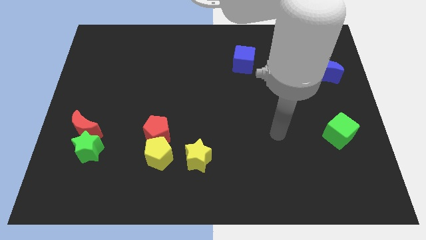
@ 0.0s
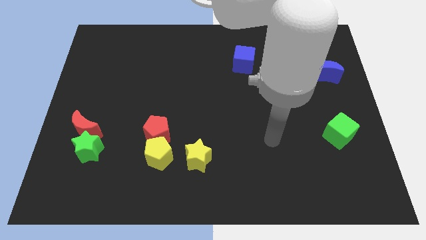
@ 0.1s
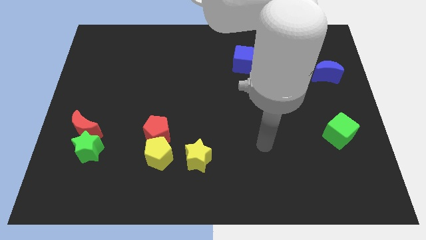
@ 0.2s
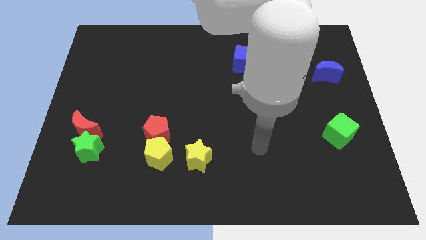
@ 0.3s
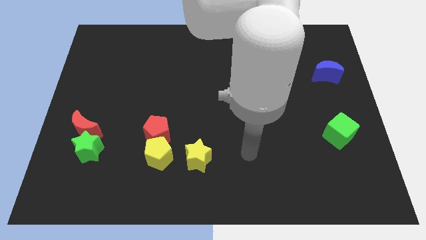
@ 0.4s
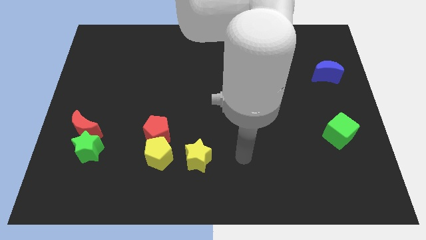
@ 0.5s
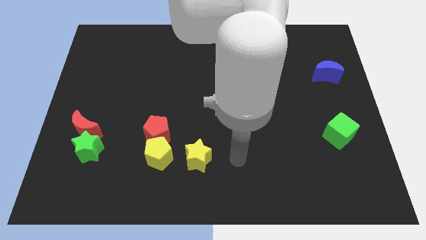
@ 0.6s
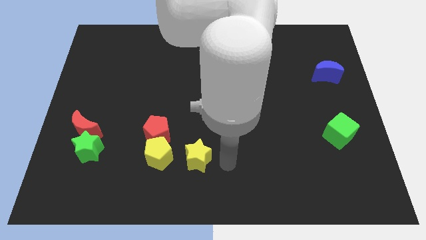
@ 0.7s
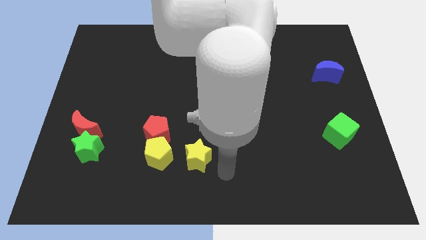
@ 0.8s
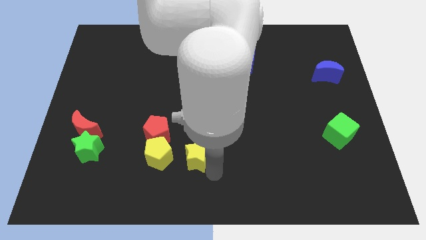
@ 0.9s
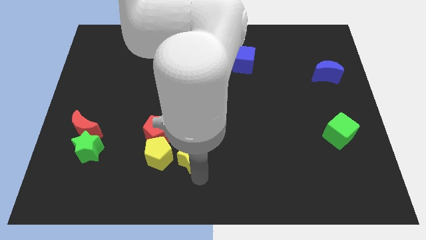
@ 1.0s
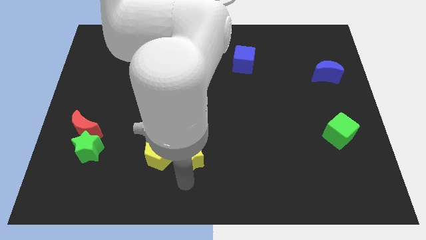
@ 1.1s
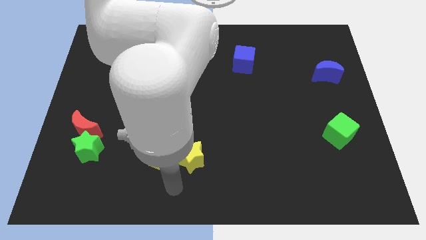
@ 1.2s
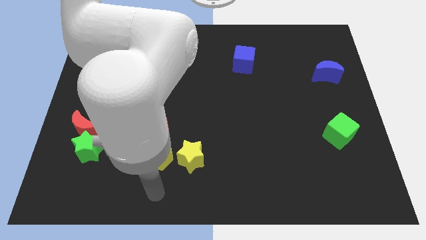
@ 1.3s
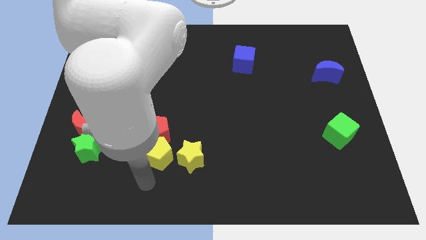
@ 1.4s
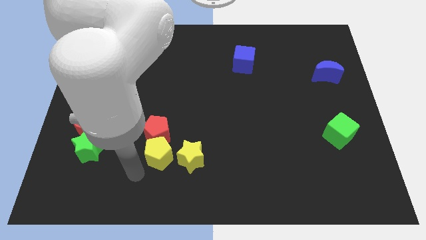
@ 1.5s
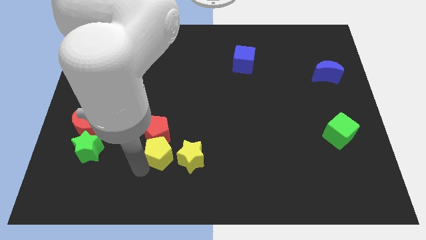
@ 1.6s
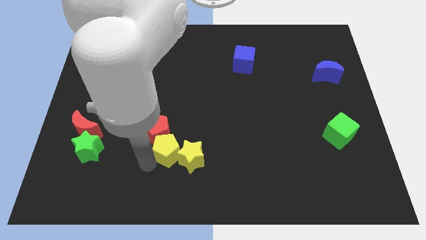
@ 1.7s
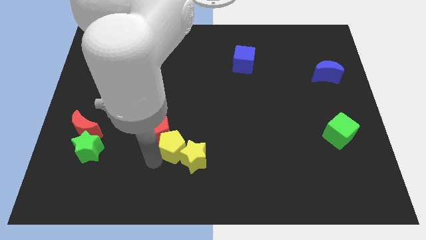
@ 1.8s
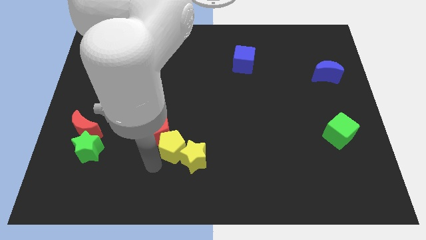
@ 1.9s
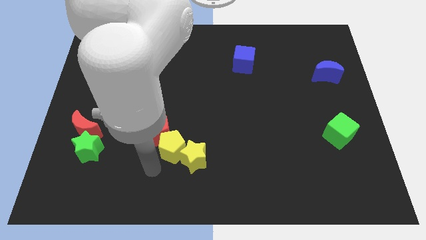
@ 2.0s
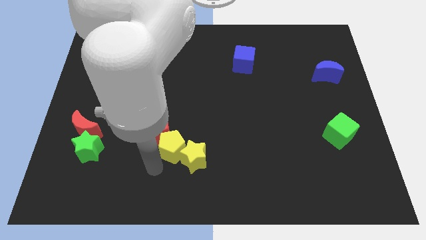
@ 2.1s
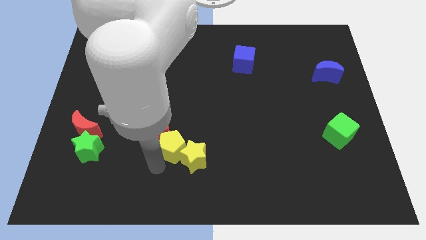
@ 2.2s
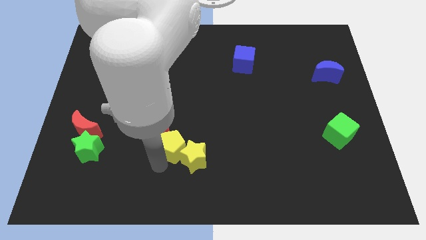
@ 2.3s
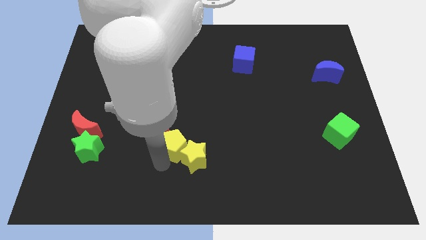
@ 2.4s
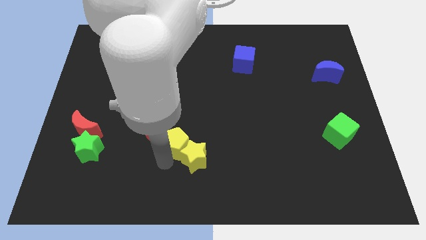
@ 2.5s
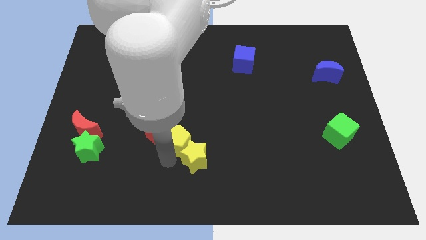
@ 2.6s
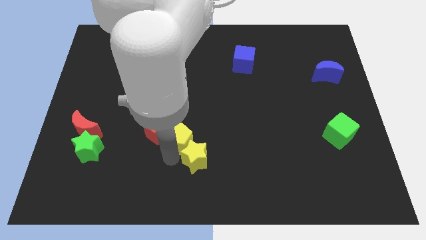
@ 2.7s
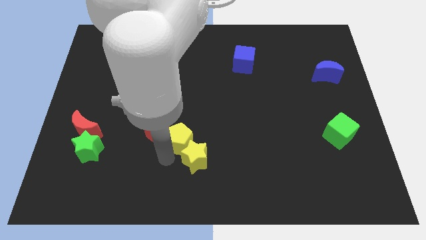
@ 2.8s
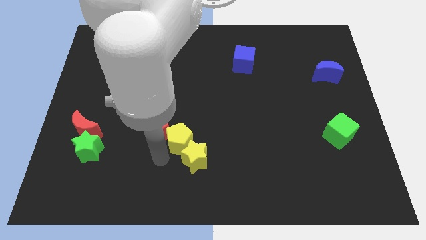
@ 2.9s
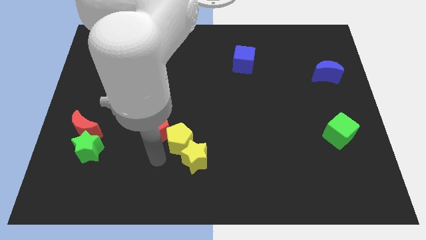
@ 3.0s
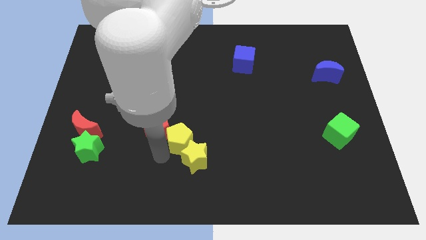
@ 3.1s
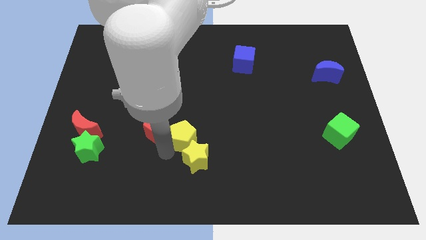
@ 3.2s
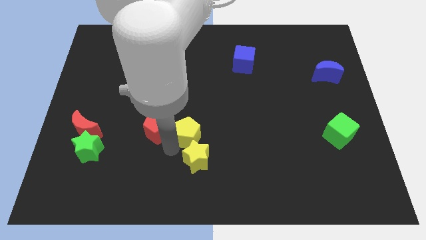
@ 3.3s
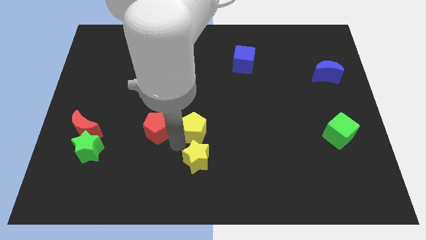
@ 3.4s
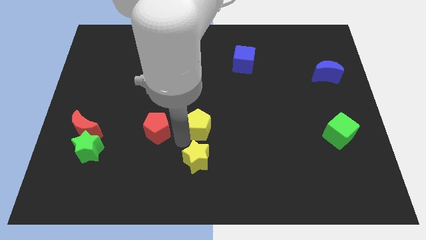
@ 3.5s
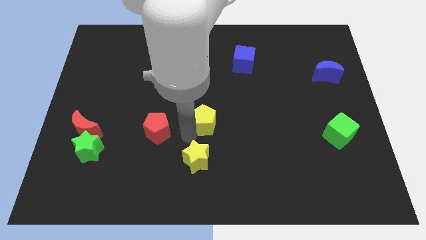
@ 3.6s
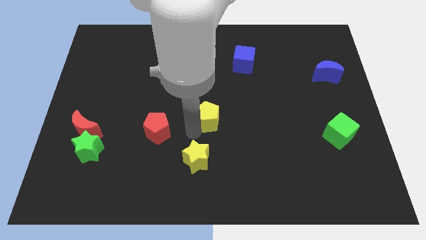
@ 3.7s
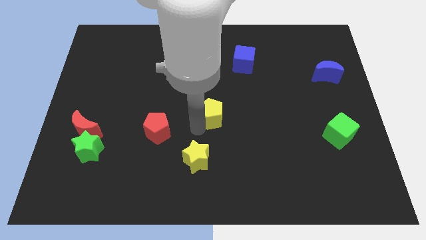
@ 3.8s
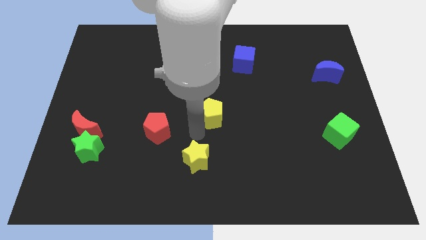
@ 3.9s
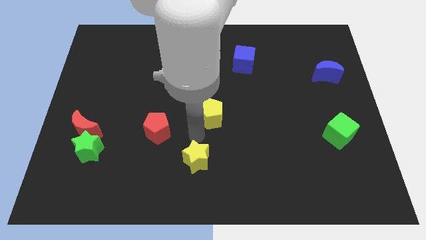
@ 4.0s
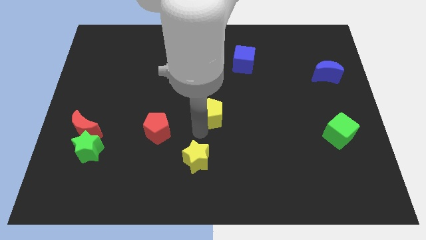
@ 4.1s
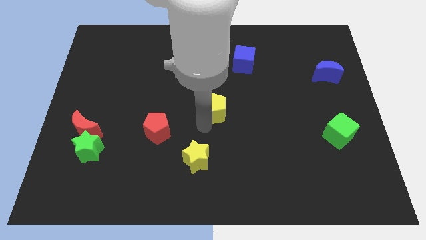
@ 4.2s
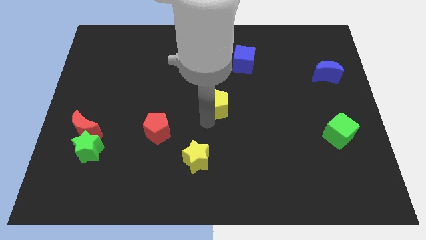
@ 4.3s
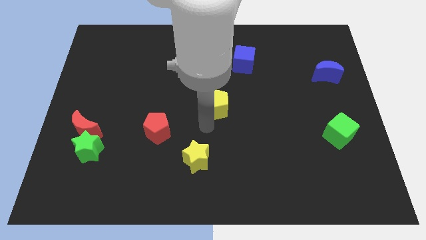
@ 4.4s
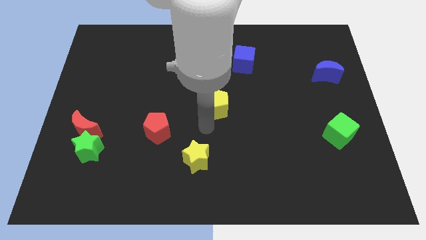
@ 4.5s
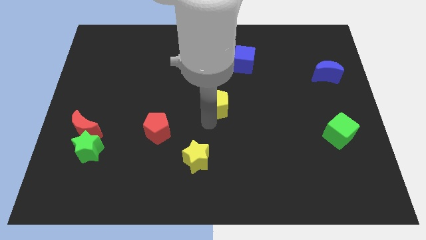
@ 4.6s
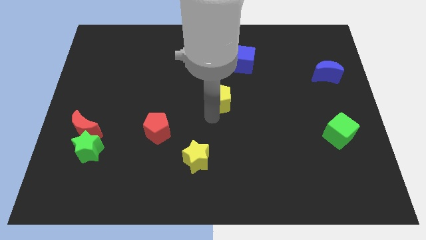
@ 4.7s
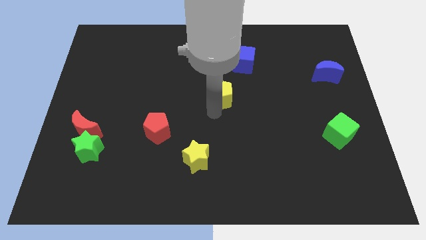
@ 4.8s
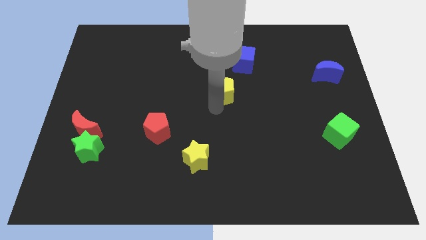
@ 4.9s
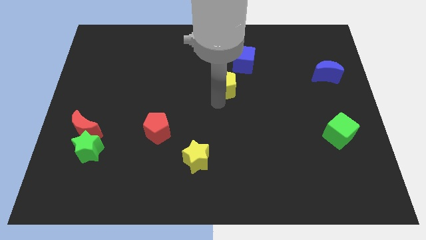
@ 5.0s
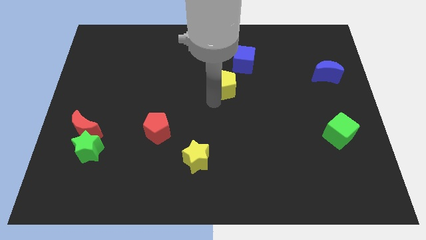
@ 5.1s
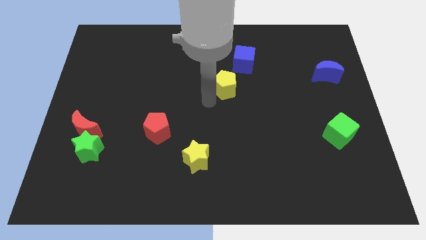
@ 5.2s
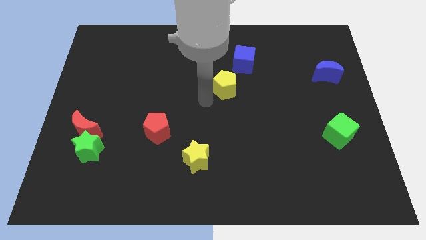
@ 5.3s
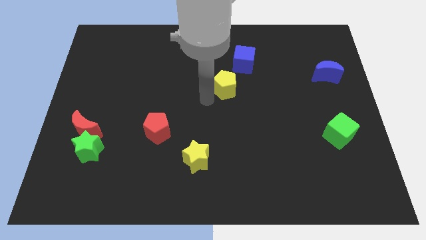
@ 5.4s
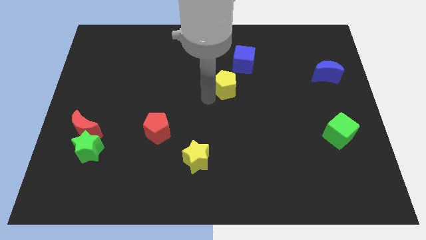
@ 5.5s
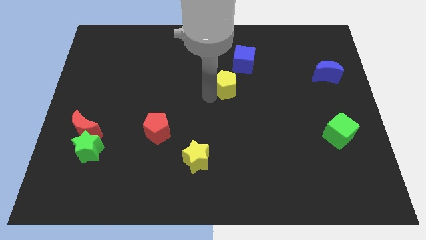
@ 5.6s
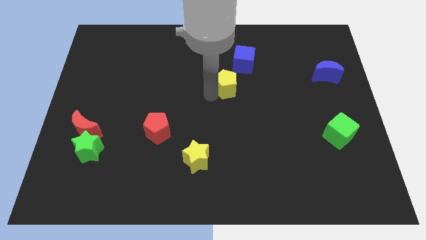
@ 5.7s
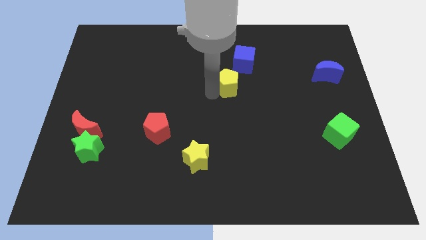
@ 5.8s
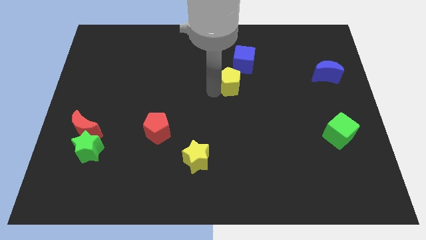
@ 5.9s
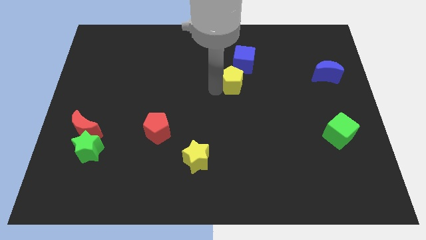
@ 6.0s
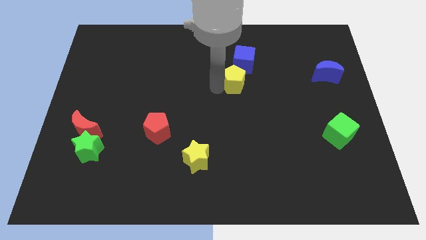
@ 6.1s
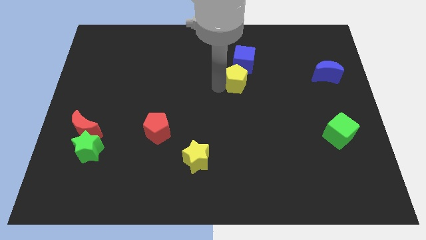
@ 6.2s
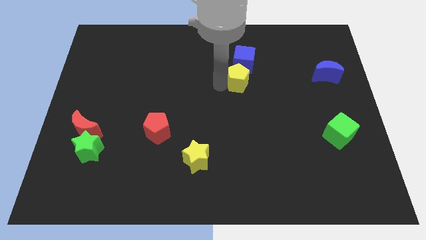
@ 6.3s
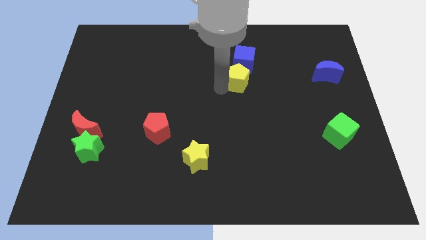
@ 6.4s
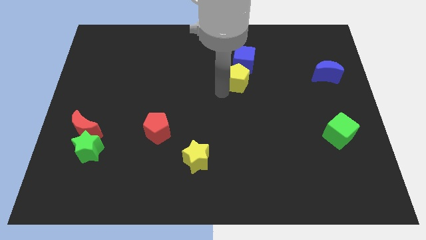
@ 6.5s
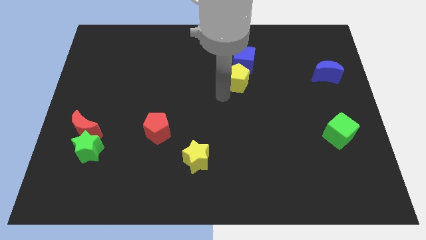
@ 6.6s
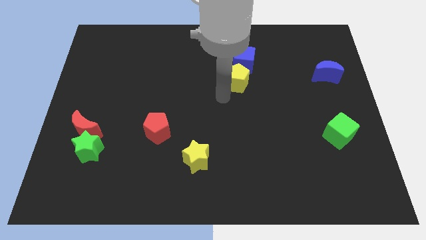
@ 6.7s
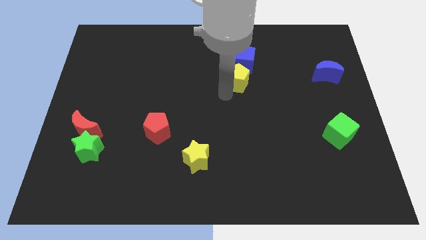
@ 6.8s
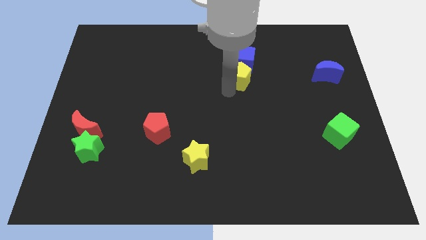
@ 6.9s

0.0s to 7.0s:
move the yellow pentagon next to the blue cube
